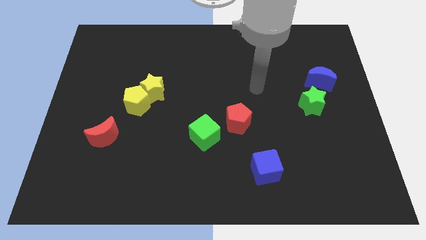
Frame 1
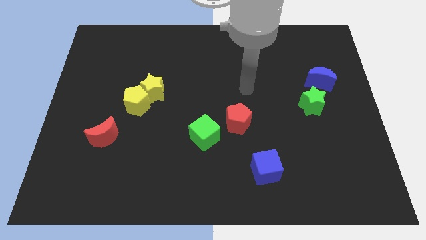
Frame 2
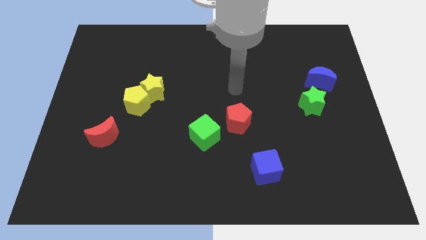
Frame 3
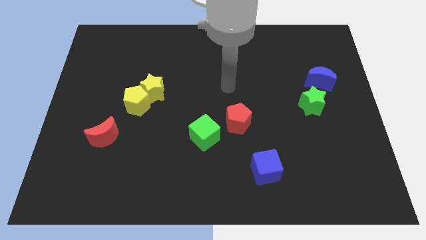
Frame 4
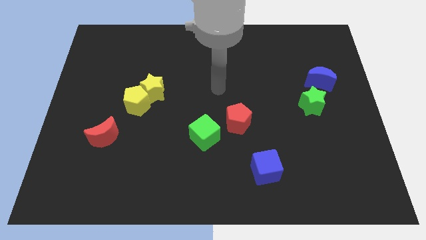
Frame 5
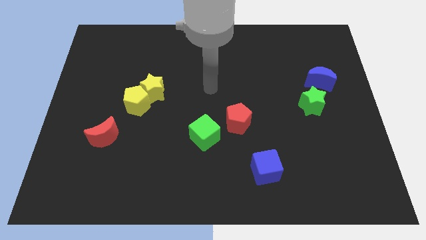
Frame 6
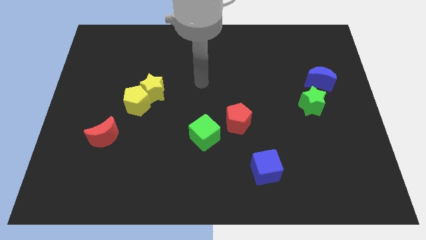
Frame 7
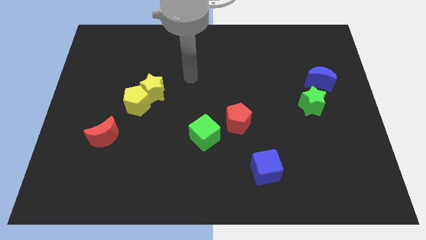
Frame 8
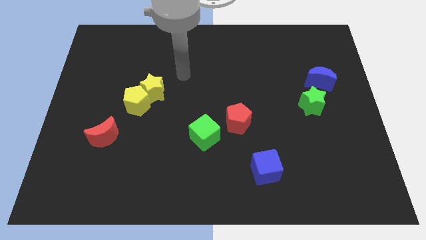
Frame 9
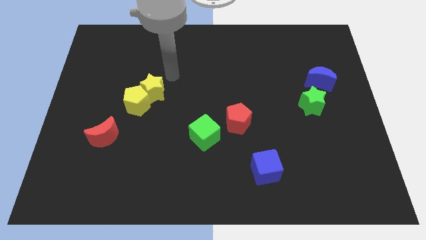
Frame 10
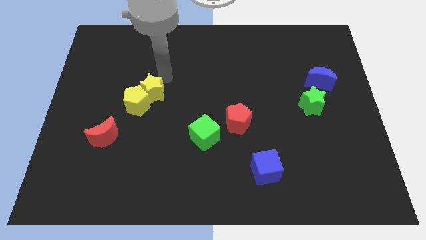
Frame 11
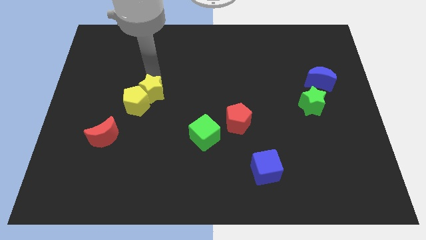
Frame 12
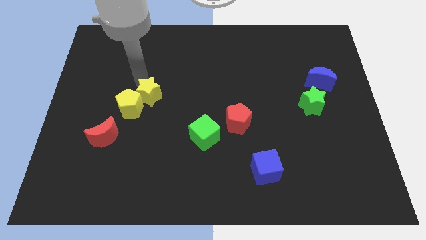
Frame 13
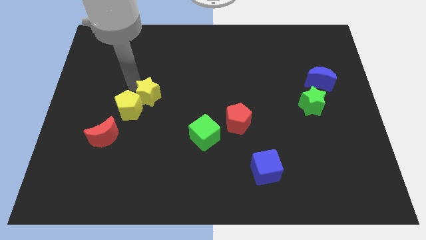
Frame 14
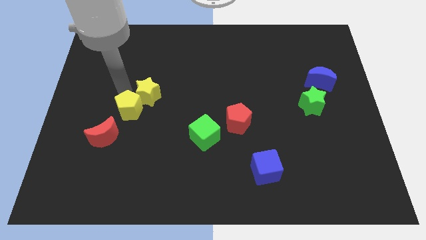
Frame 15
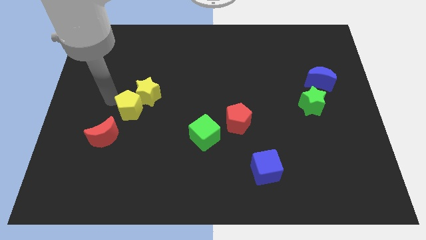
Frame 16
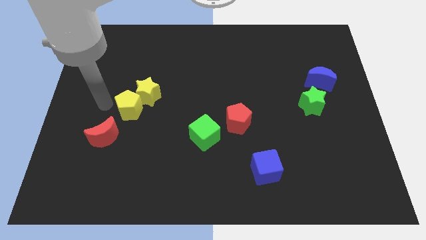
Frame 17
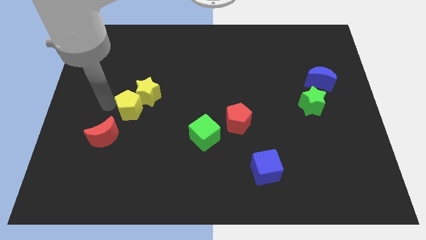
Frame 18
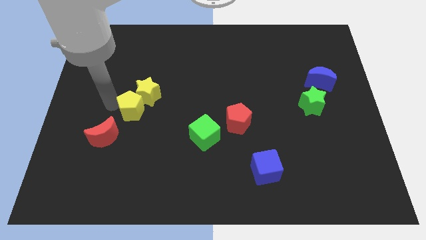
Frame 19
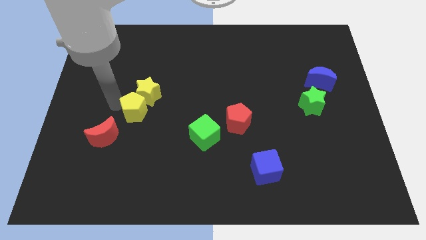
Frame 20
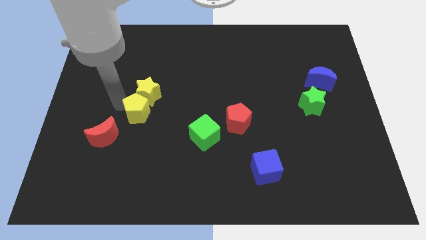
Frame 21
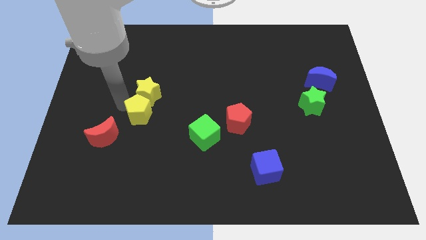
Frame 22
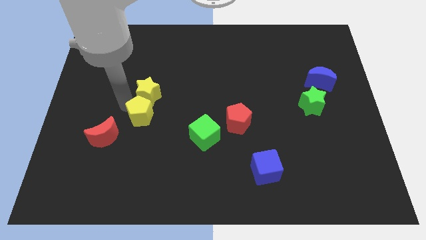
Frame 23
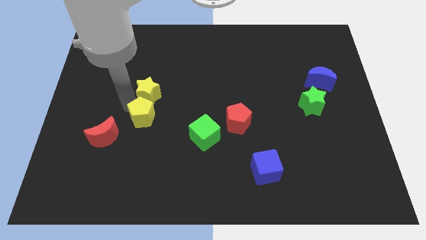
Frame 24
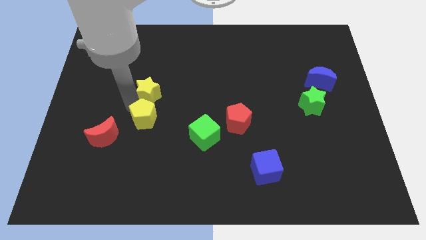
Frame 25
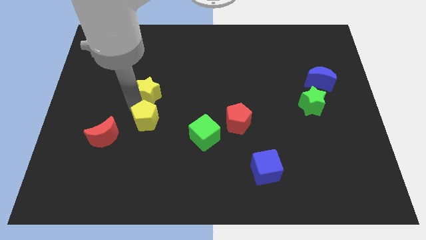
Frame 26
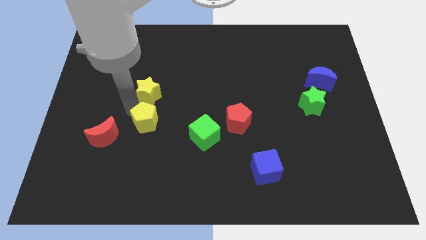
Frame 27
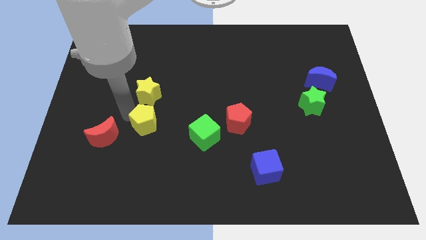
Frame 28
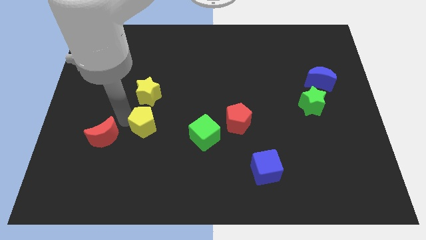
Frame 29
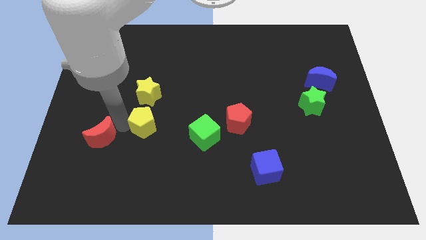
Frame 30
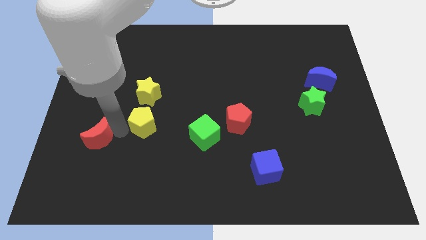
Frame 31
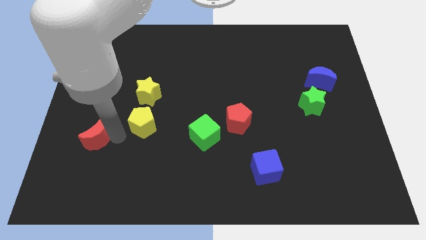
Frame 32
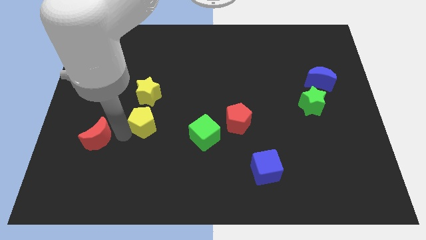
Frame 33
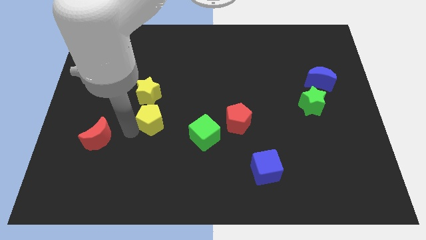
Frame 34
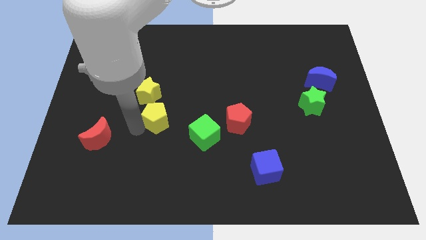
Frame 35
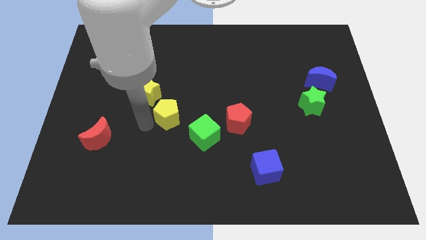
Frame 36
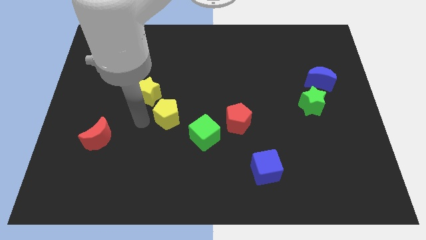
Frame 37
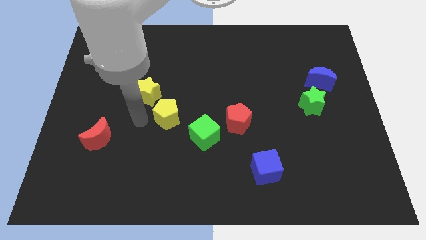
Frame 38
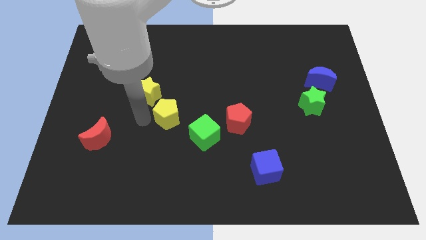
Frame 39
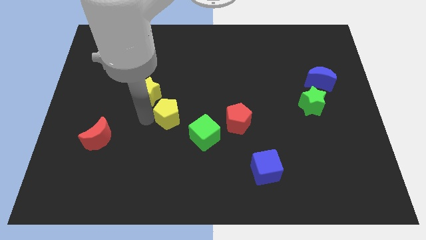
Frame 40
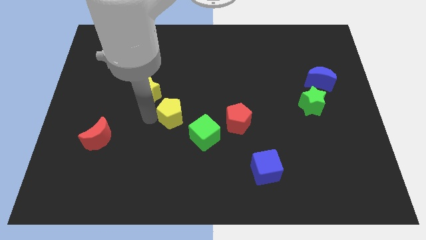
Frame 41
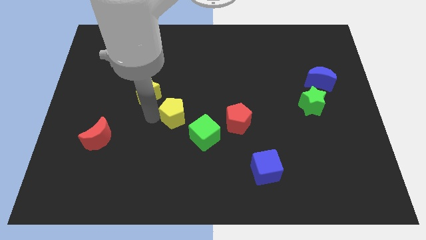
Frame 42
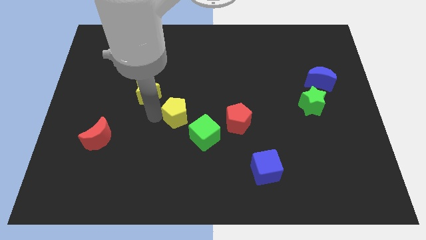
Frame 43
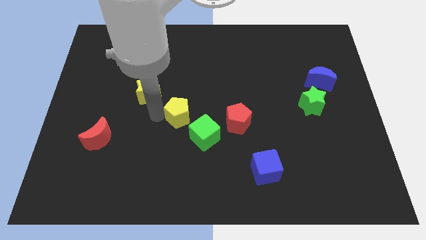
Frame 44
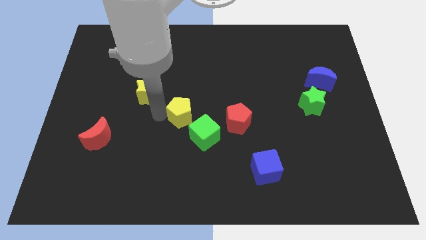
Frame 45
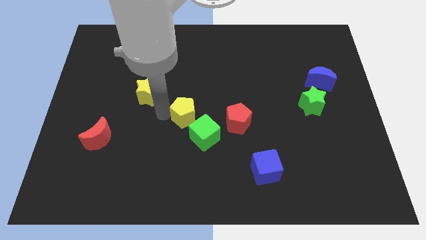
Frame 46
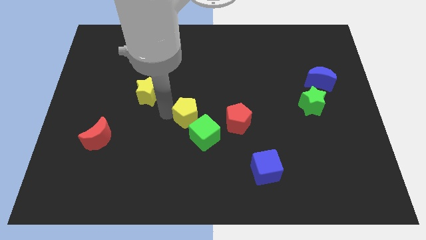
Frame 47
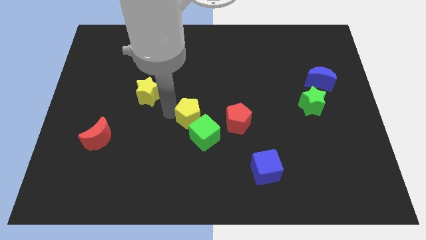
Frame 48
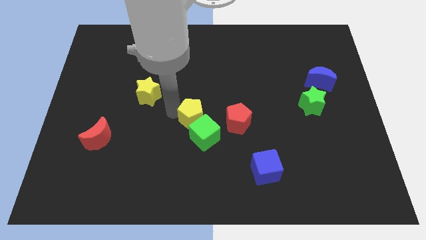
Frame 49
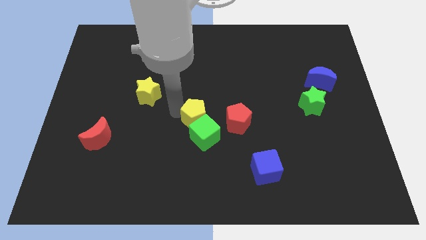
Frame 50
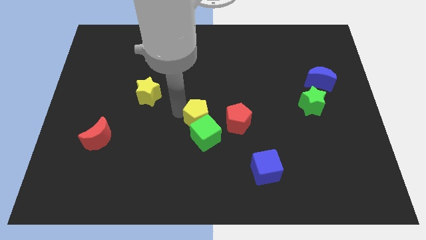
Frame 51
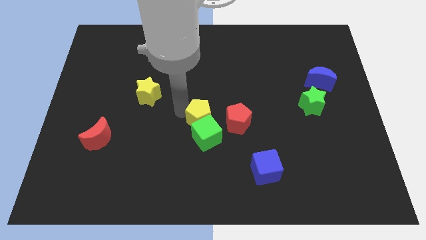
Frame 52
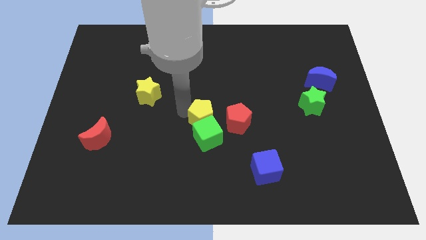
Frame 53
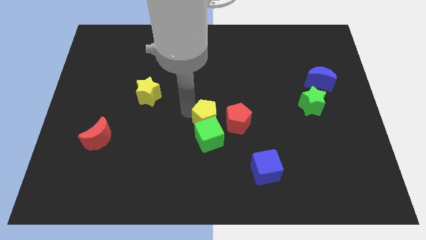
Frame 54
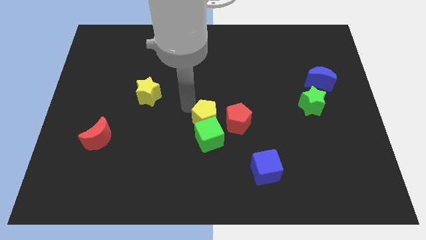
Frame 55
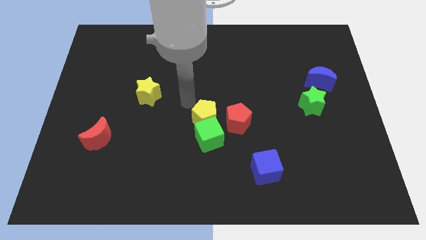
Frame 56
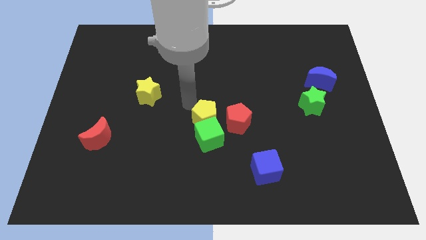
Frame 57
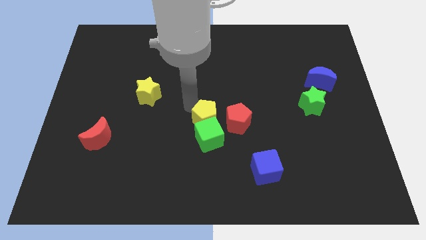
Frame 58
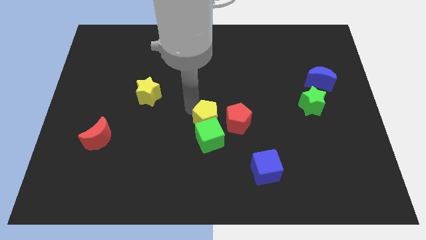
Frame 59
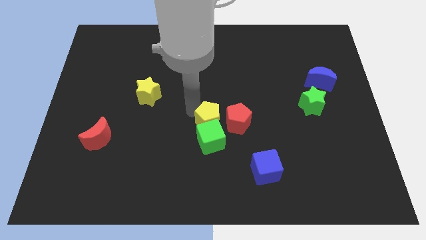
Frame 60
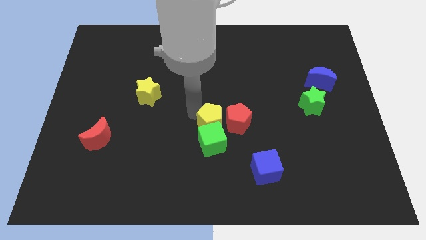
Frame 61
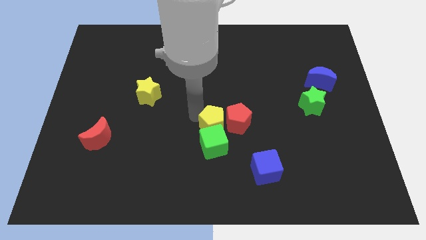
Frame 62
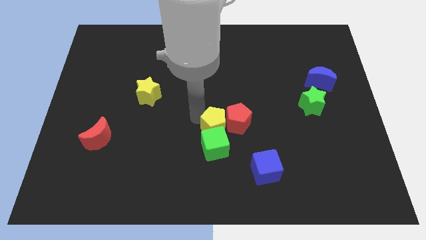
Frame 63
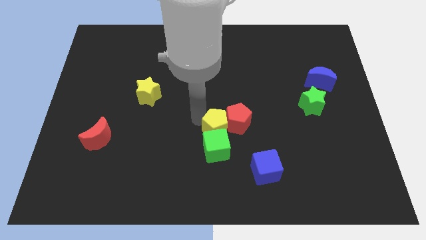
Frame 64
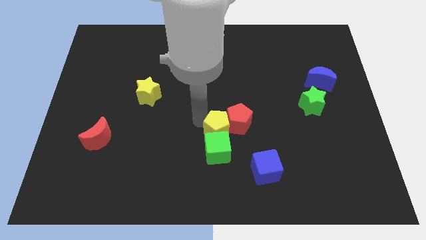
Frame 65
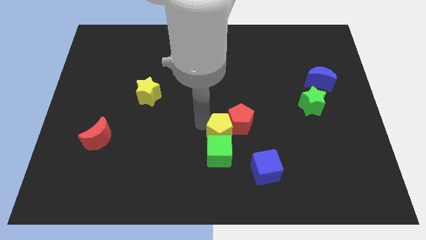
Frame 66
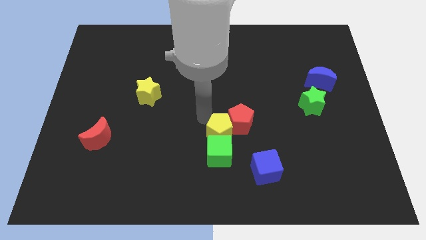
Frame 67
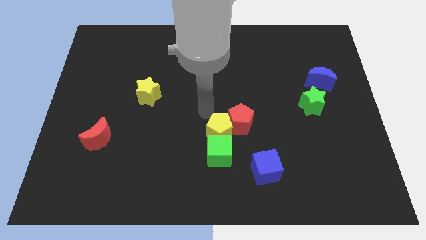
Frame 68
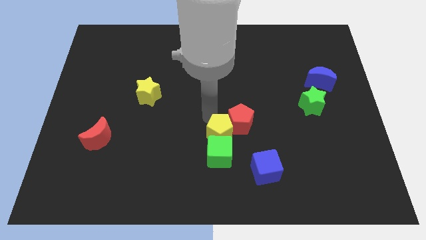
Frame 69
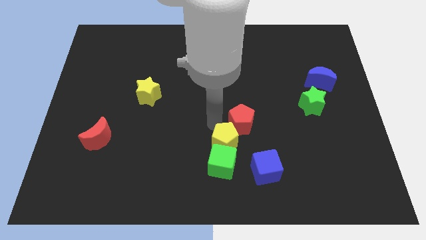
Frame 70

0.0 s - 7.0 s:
slide the yellow pentagon below the red pentagon
